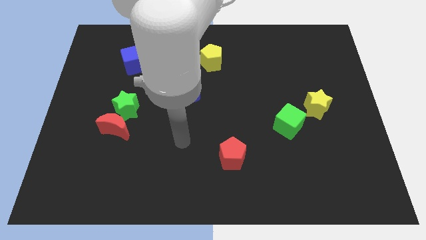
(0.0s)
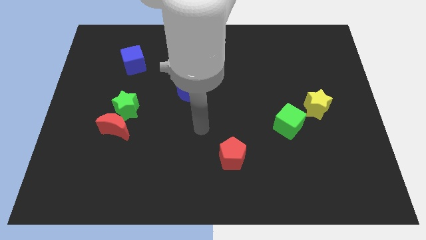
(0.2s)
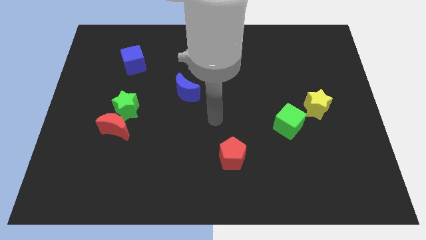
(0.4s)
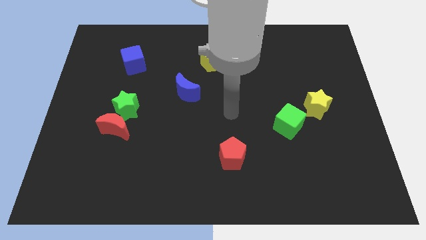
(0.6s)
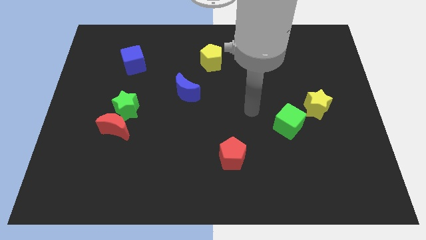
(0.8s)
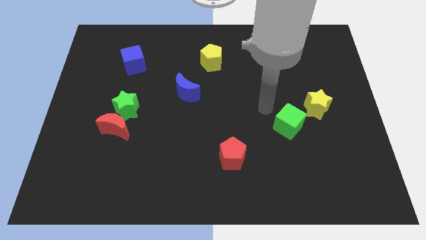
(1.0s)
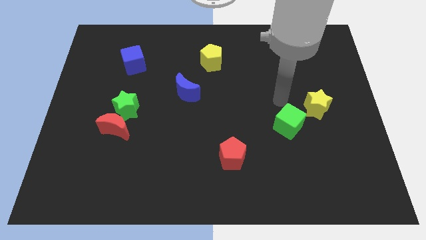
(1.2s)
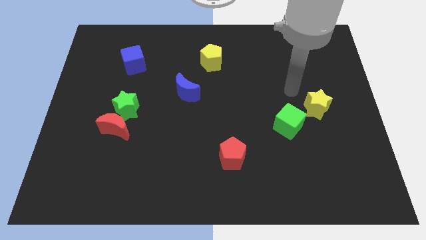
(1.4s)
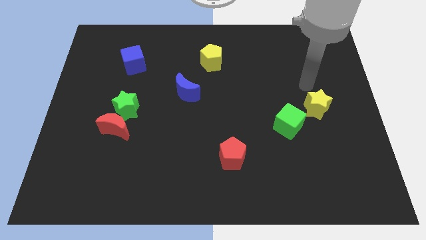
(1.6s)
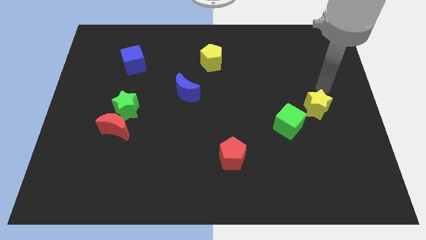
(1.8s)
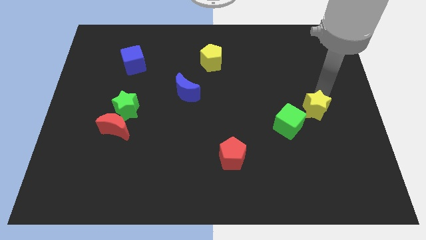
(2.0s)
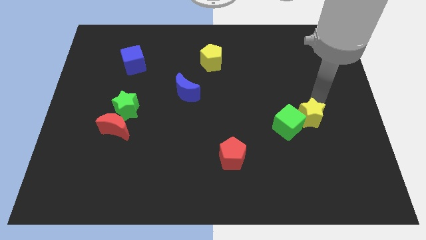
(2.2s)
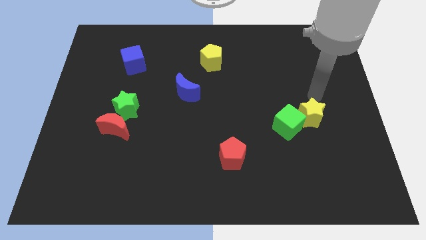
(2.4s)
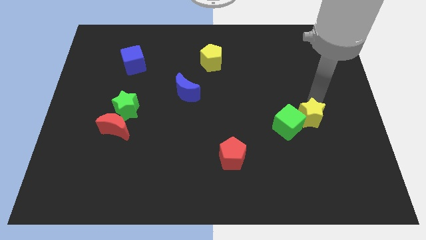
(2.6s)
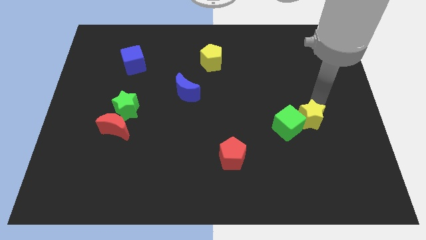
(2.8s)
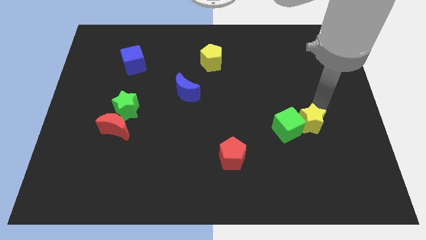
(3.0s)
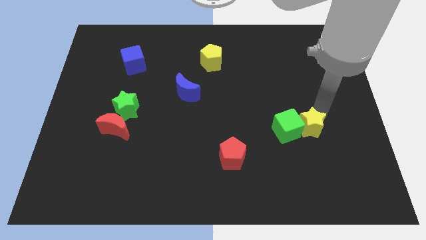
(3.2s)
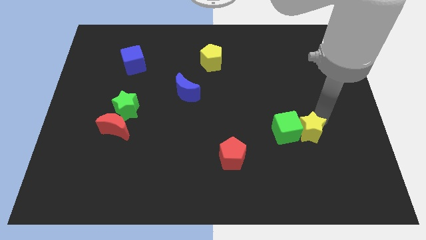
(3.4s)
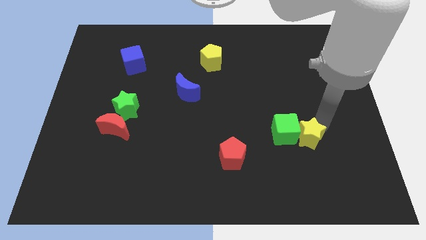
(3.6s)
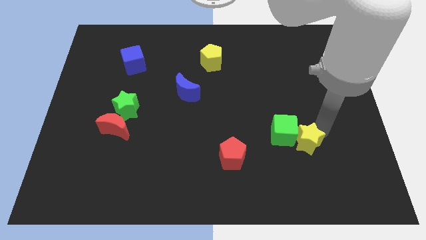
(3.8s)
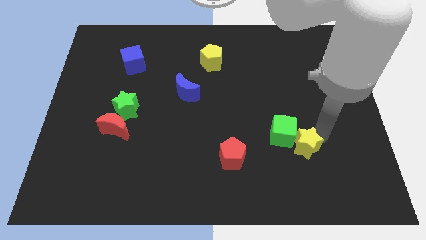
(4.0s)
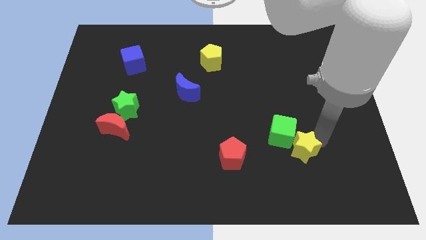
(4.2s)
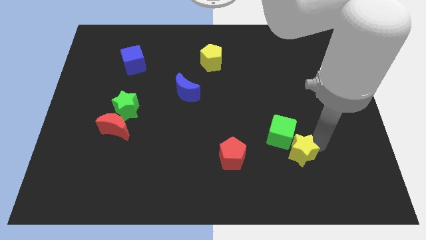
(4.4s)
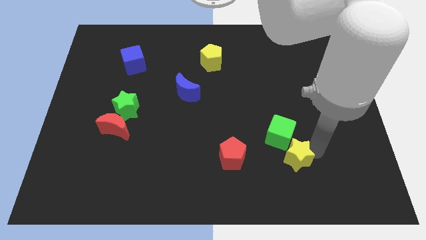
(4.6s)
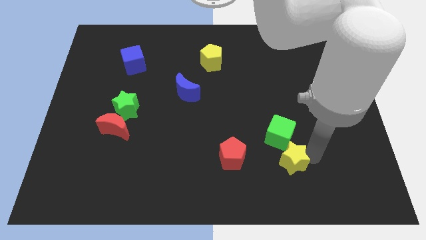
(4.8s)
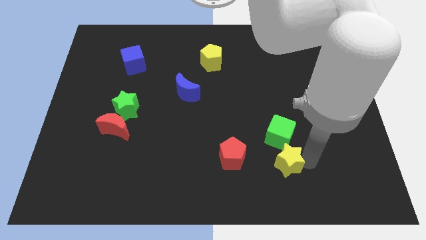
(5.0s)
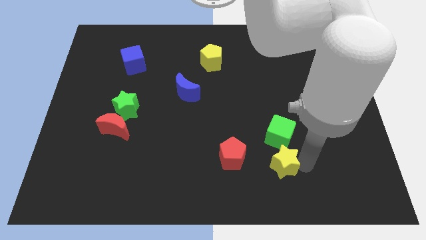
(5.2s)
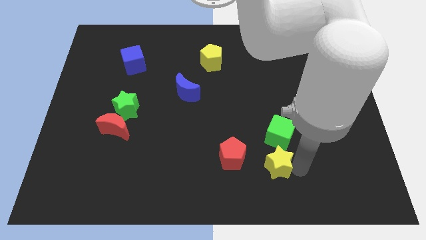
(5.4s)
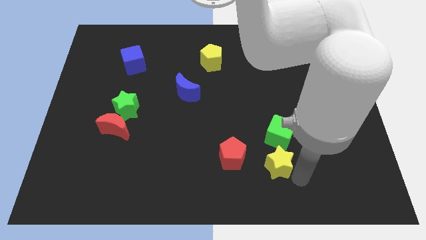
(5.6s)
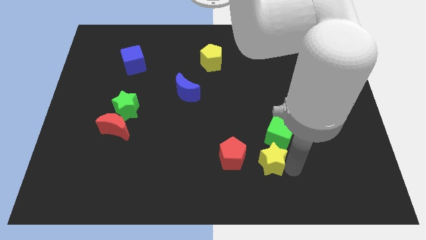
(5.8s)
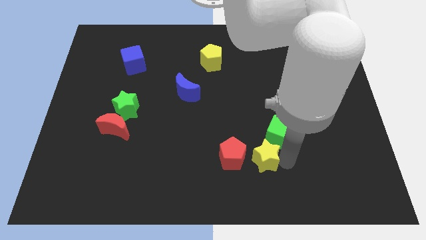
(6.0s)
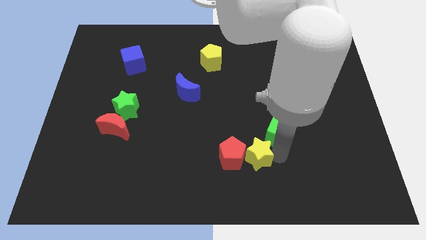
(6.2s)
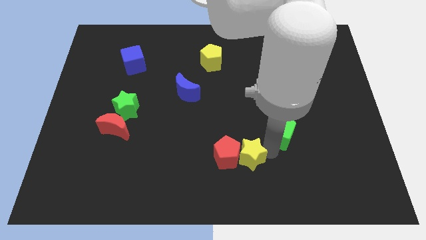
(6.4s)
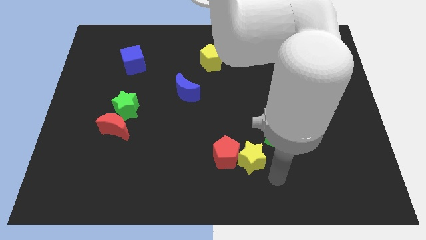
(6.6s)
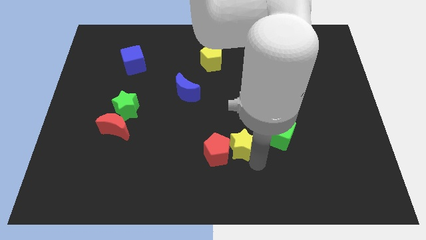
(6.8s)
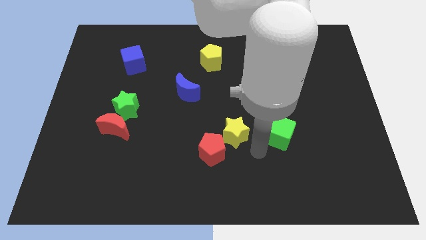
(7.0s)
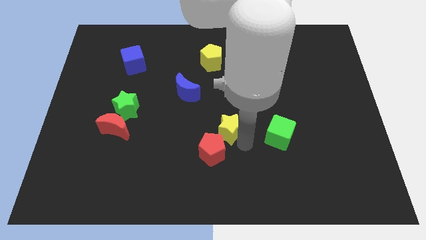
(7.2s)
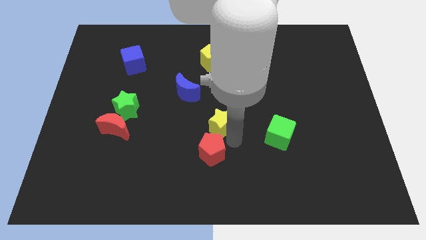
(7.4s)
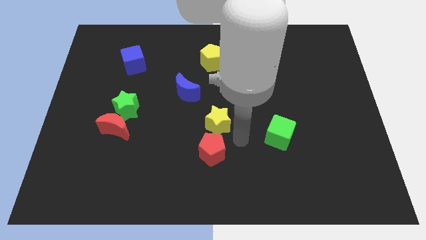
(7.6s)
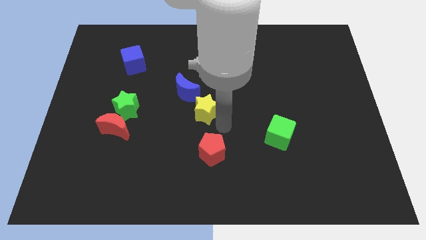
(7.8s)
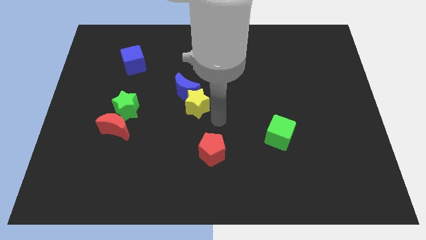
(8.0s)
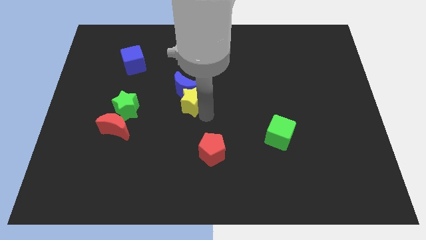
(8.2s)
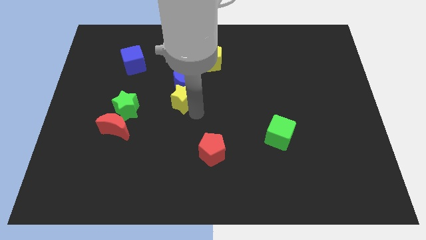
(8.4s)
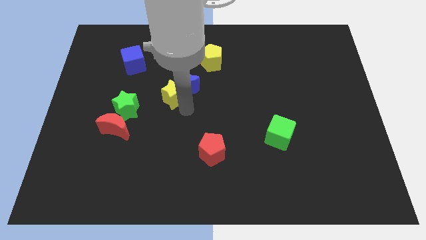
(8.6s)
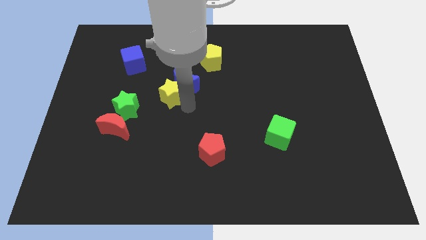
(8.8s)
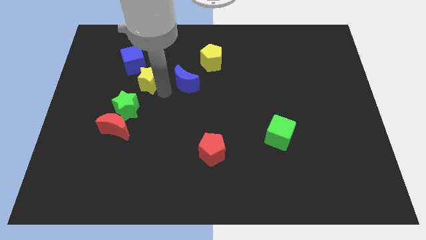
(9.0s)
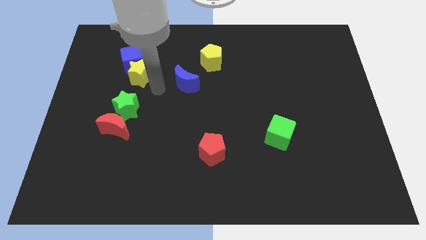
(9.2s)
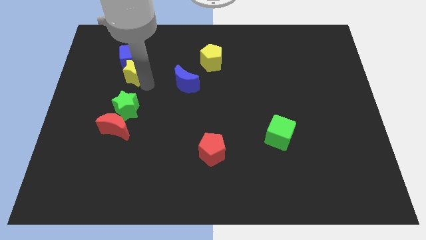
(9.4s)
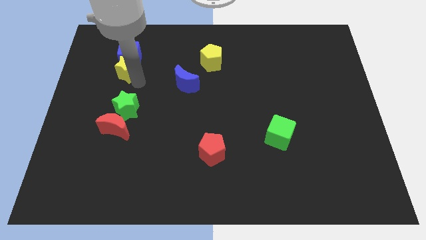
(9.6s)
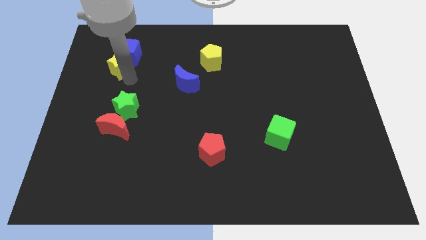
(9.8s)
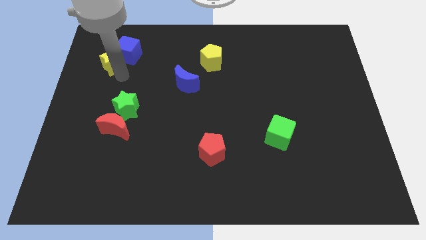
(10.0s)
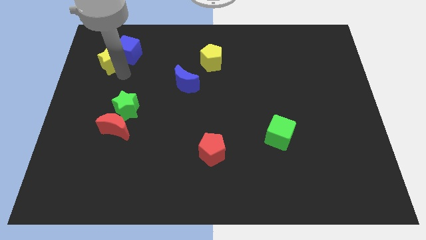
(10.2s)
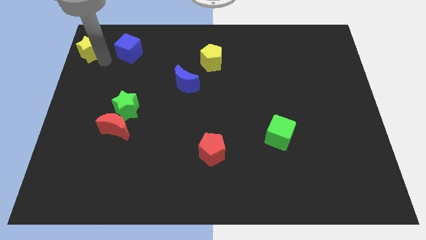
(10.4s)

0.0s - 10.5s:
move the yellow star to the top left of the board

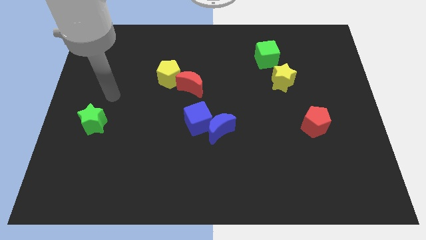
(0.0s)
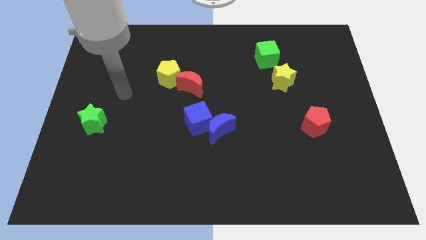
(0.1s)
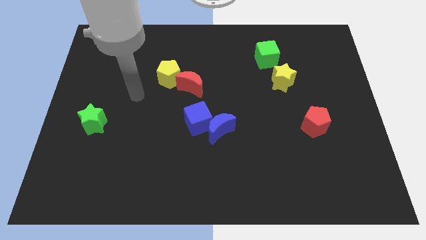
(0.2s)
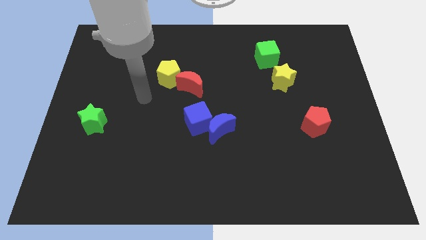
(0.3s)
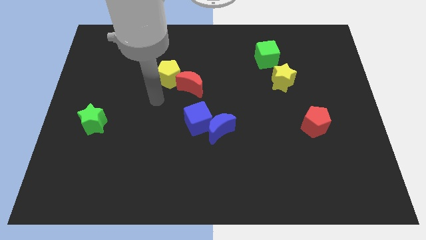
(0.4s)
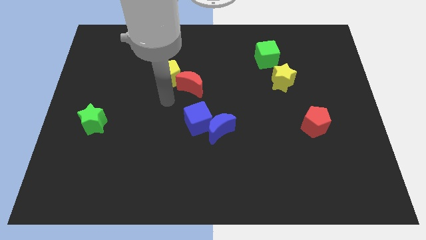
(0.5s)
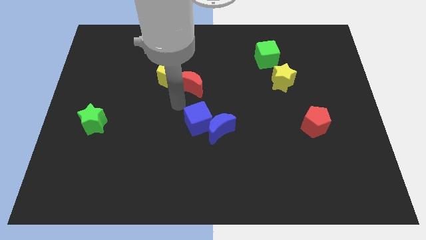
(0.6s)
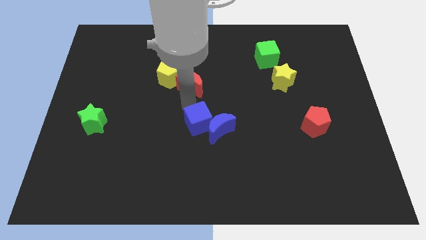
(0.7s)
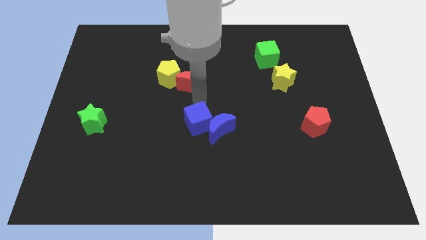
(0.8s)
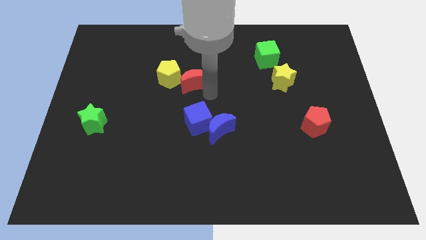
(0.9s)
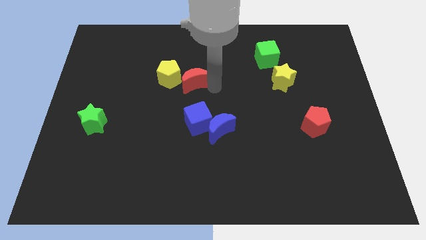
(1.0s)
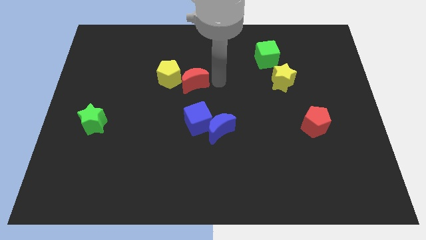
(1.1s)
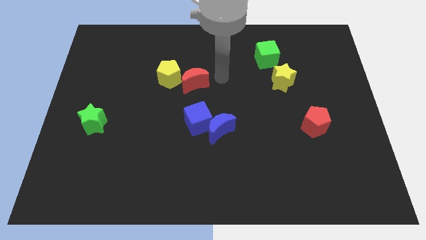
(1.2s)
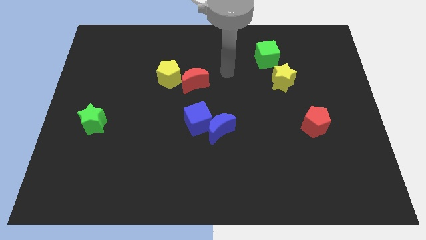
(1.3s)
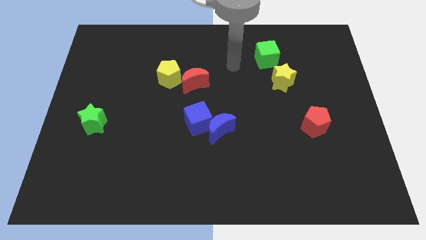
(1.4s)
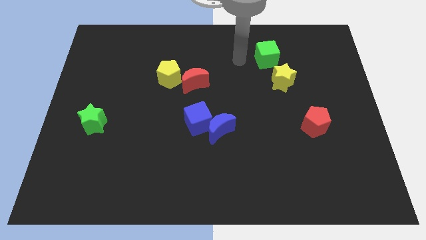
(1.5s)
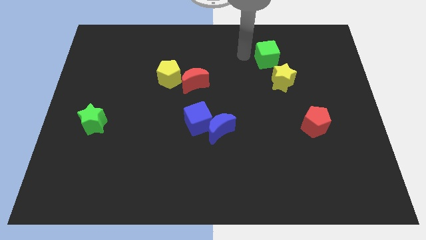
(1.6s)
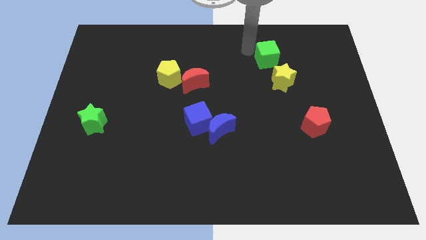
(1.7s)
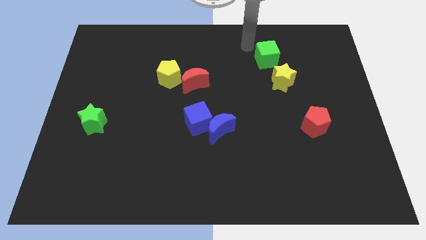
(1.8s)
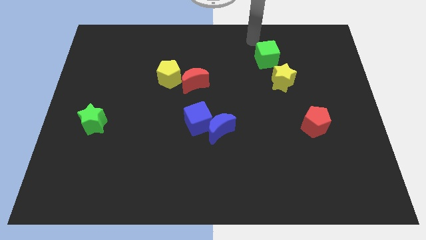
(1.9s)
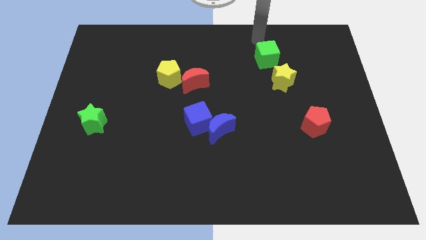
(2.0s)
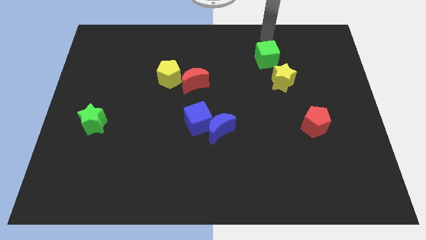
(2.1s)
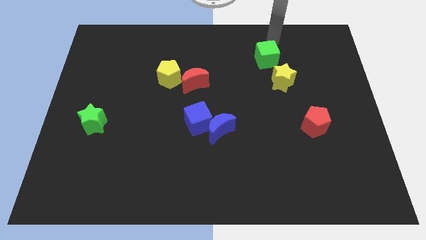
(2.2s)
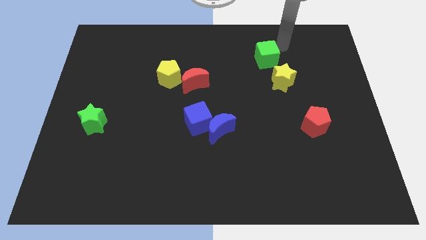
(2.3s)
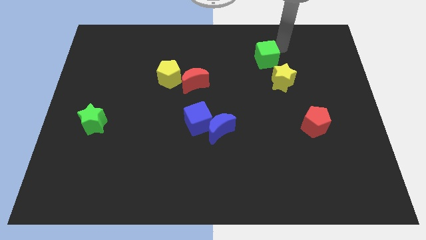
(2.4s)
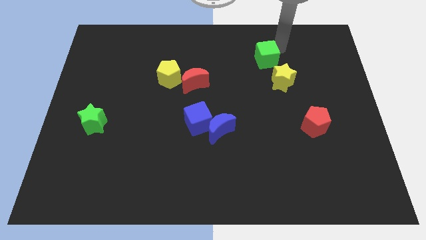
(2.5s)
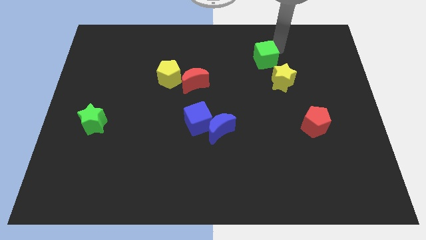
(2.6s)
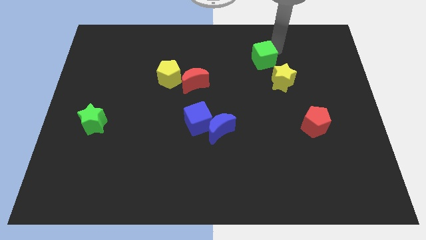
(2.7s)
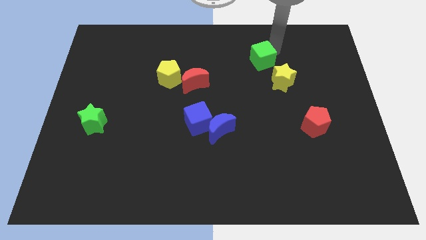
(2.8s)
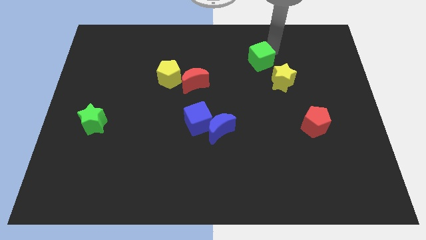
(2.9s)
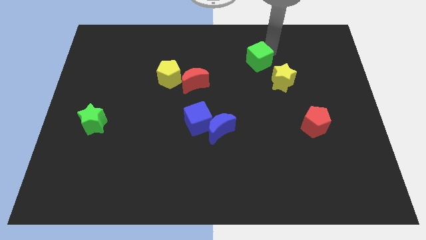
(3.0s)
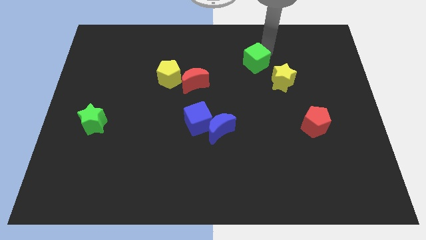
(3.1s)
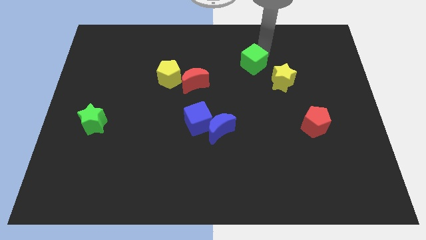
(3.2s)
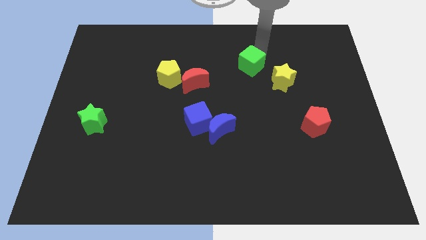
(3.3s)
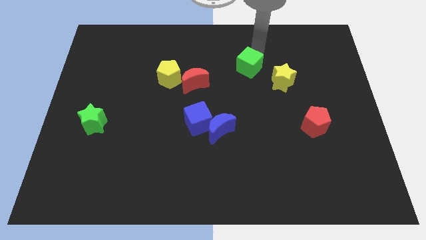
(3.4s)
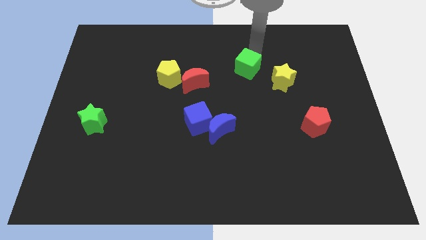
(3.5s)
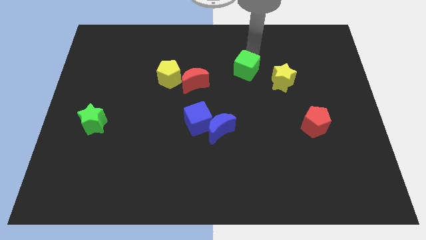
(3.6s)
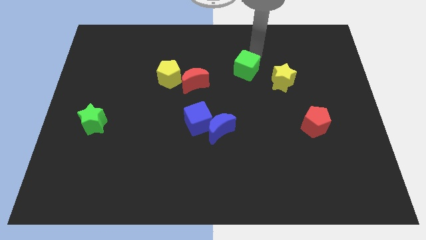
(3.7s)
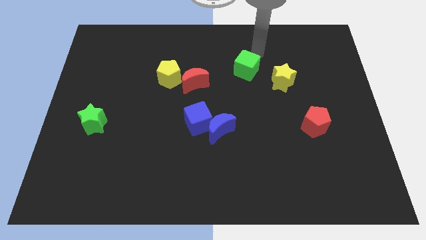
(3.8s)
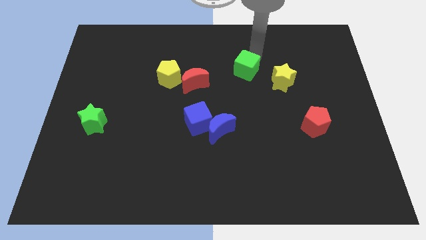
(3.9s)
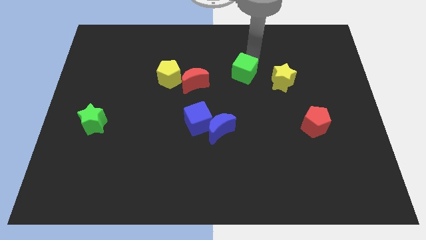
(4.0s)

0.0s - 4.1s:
put the green cube to the middle of the board
